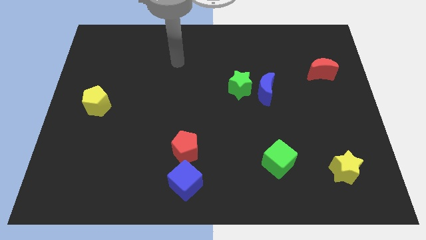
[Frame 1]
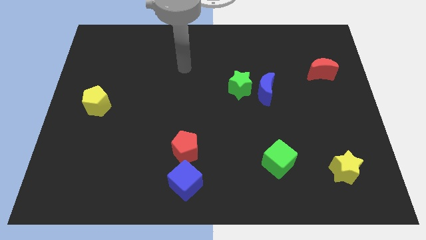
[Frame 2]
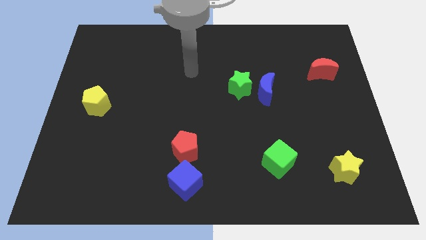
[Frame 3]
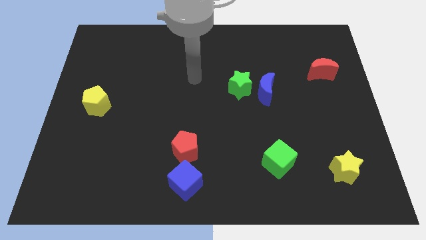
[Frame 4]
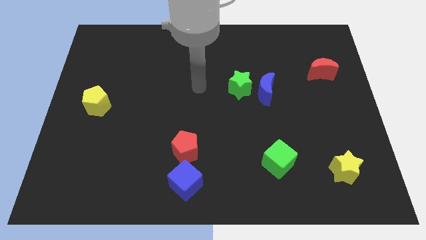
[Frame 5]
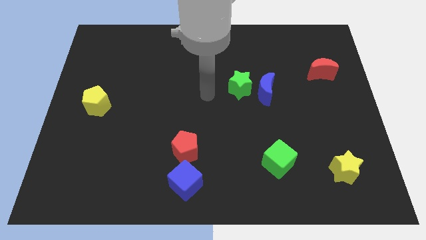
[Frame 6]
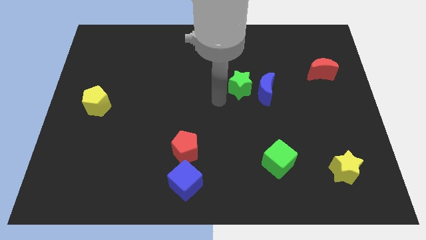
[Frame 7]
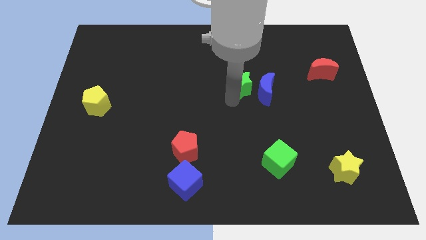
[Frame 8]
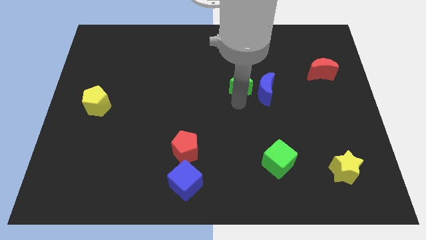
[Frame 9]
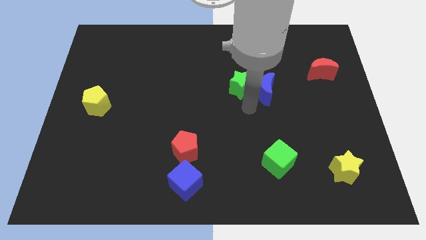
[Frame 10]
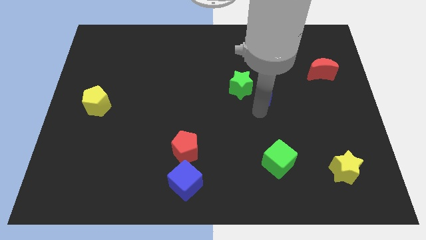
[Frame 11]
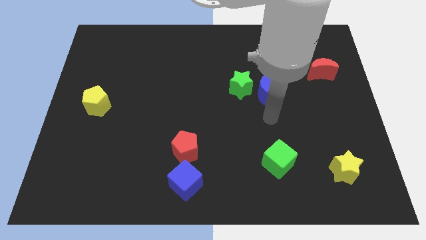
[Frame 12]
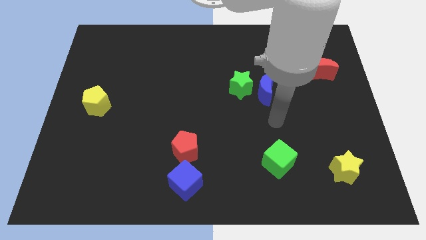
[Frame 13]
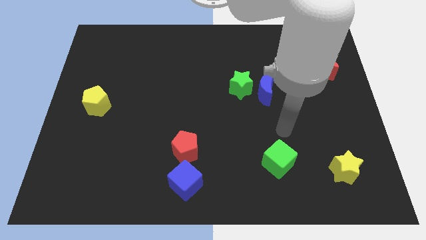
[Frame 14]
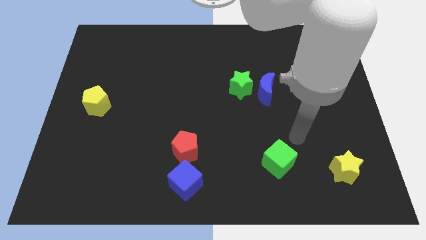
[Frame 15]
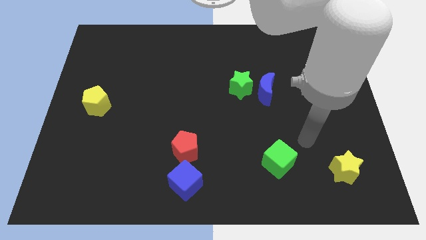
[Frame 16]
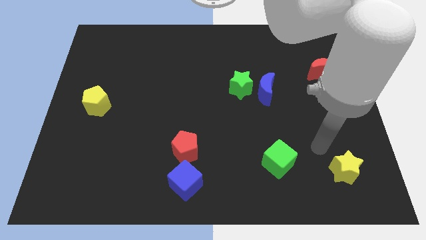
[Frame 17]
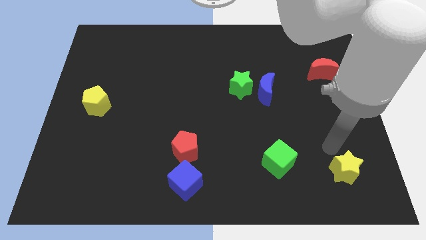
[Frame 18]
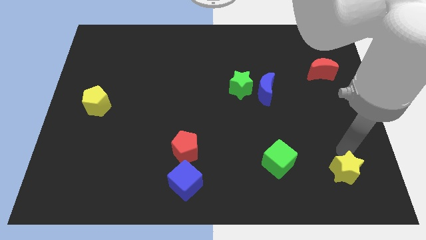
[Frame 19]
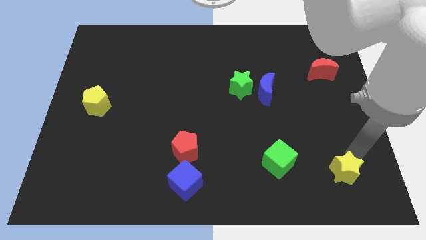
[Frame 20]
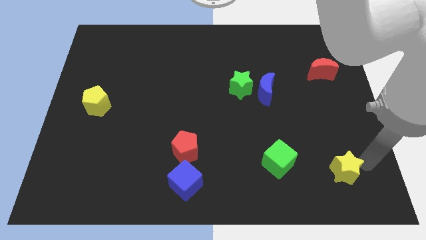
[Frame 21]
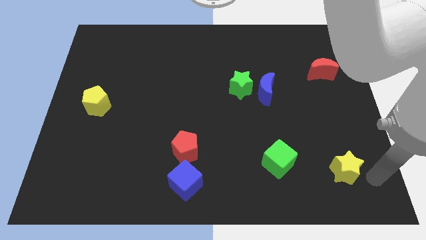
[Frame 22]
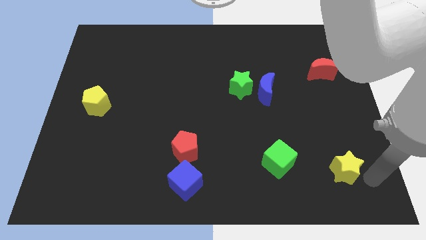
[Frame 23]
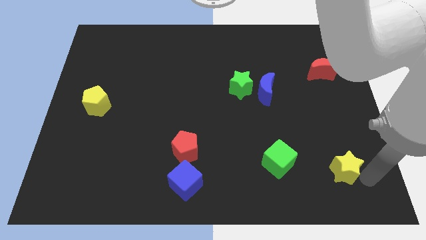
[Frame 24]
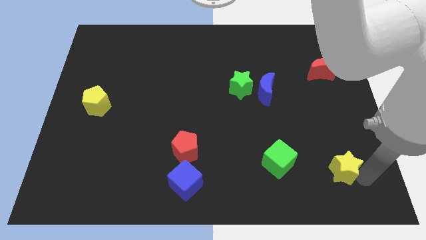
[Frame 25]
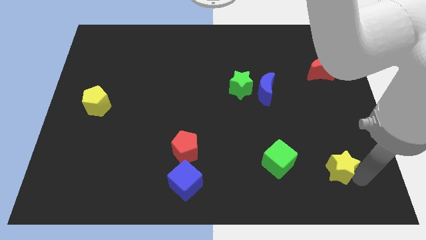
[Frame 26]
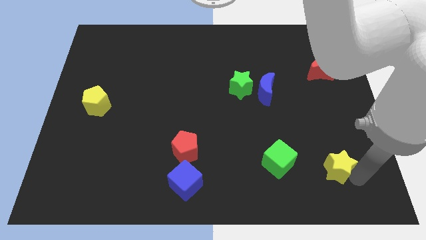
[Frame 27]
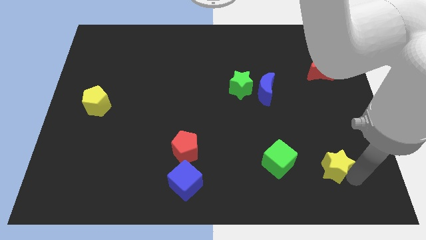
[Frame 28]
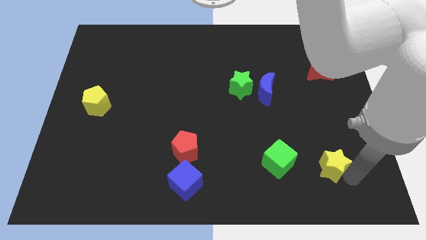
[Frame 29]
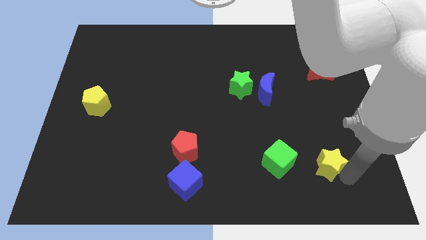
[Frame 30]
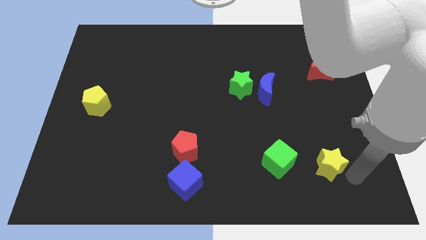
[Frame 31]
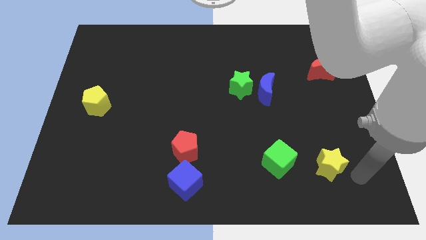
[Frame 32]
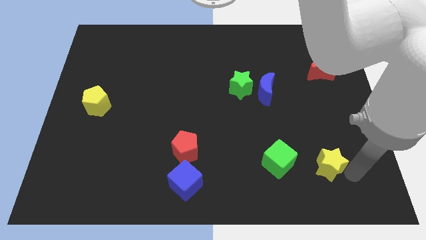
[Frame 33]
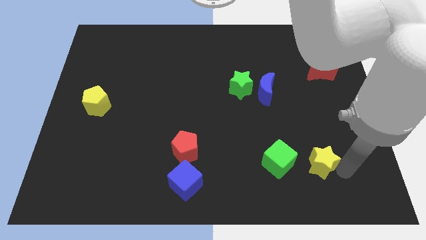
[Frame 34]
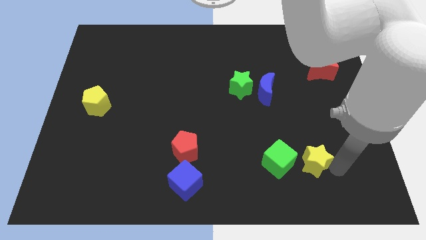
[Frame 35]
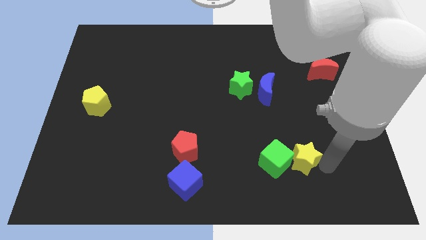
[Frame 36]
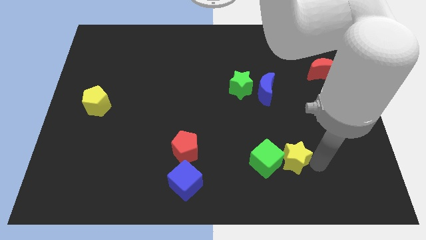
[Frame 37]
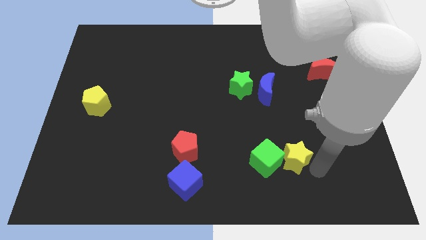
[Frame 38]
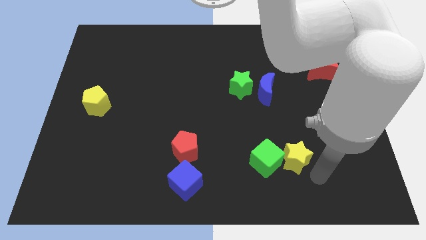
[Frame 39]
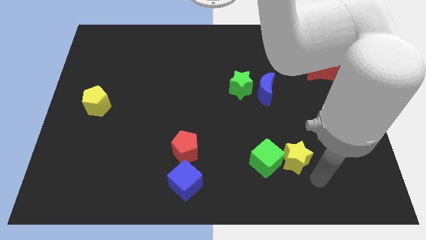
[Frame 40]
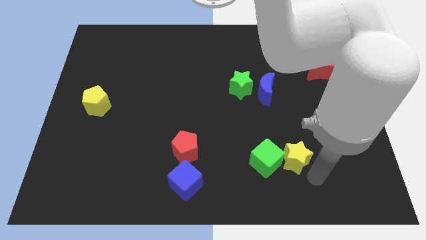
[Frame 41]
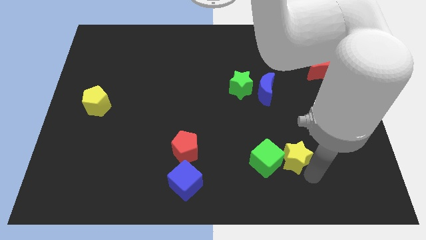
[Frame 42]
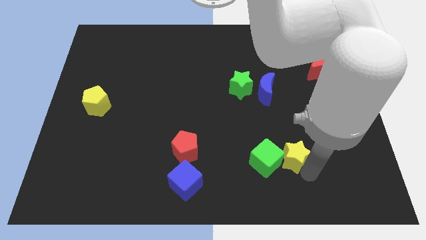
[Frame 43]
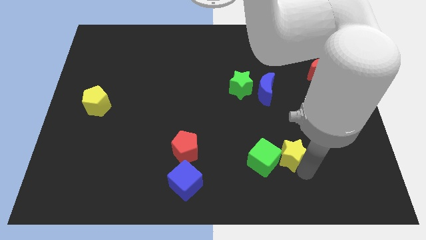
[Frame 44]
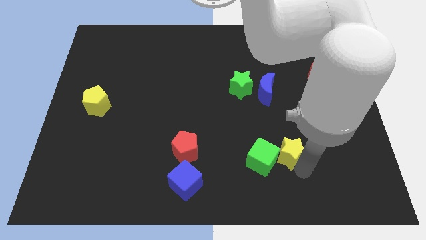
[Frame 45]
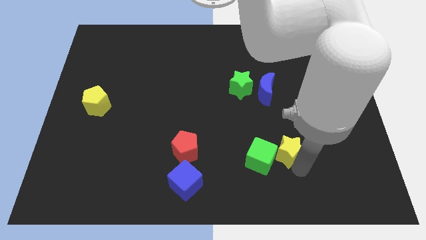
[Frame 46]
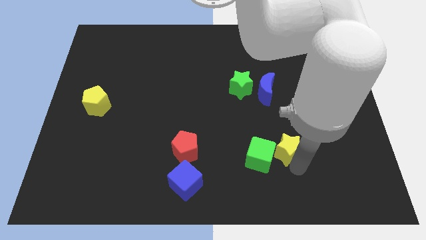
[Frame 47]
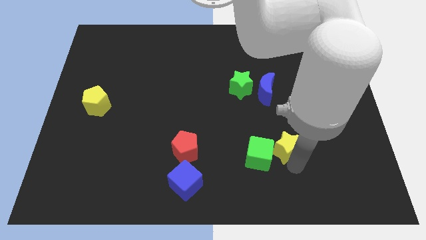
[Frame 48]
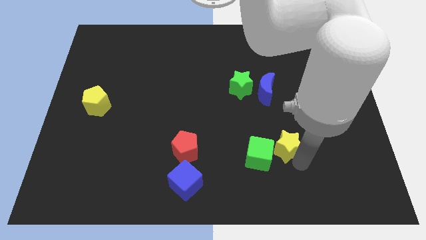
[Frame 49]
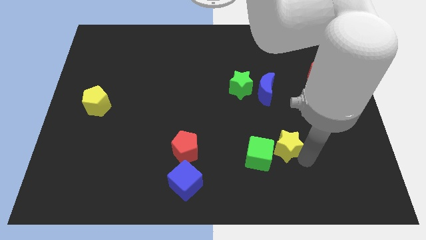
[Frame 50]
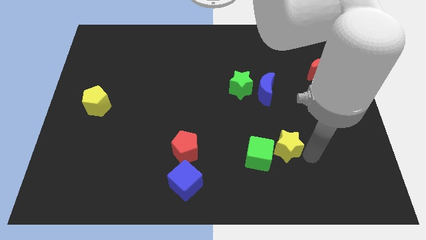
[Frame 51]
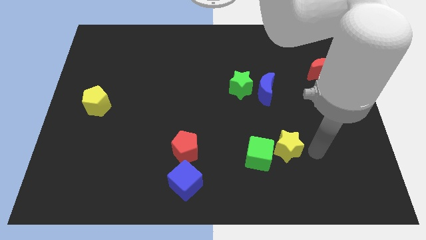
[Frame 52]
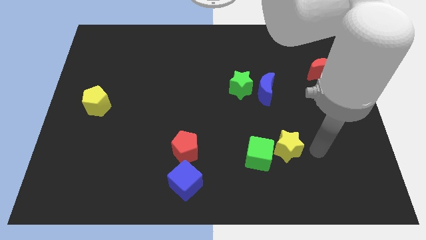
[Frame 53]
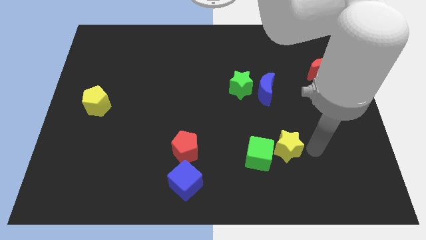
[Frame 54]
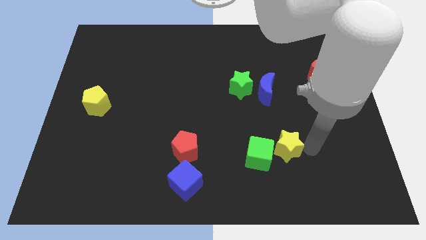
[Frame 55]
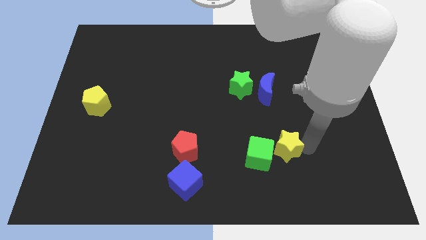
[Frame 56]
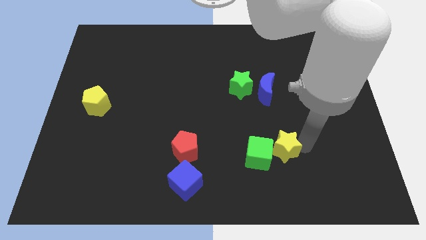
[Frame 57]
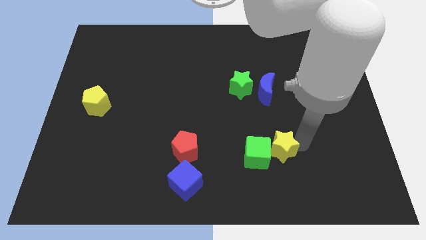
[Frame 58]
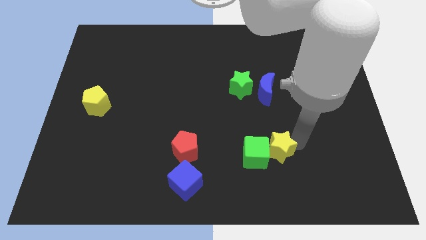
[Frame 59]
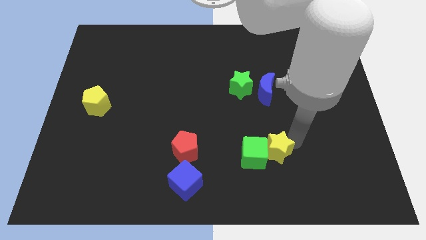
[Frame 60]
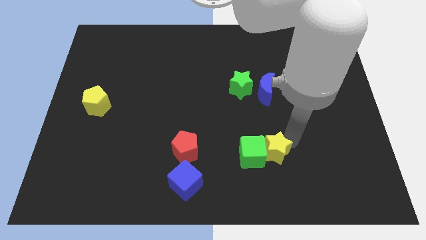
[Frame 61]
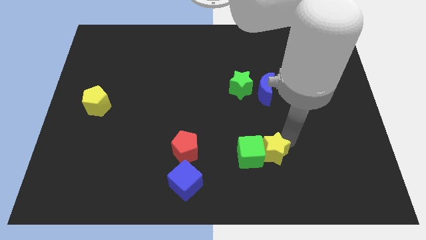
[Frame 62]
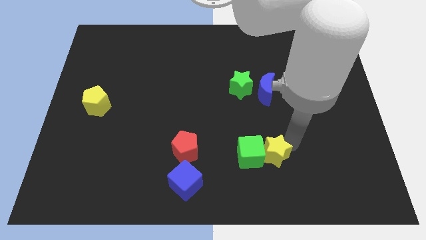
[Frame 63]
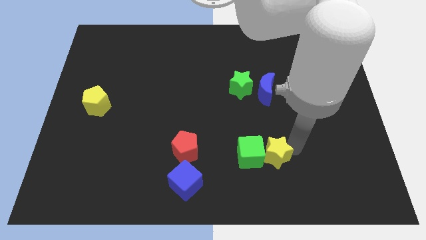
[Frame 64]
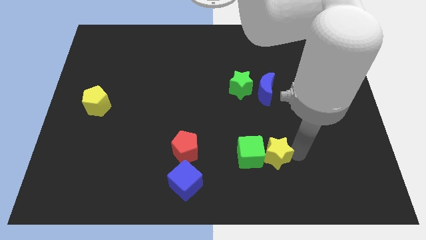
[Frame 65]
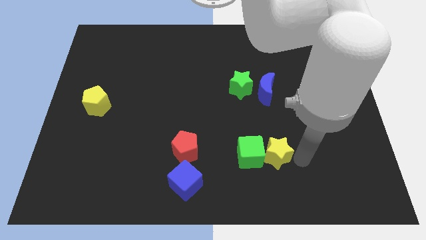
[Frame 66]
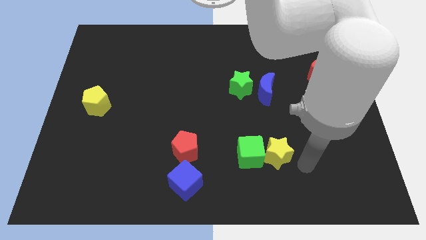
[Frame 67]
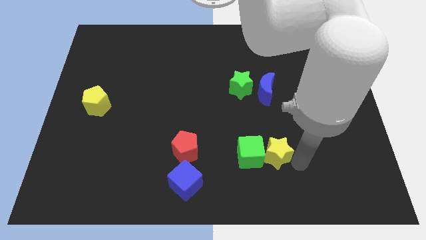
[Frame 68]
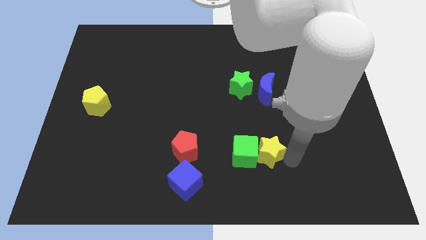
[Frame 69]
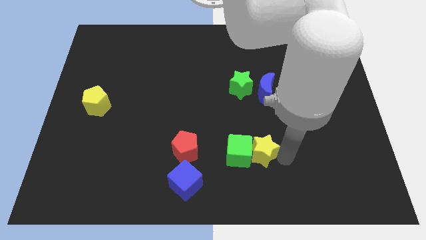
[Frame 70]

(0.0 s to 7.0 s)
push the yellow star to the right side of the red pentagon

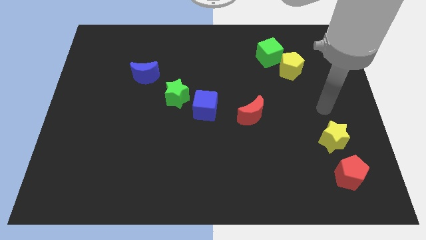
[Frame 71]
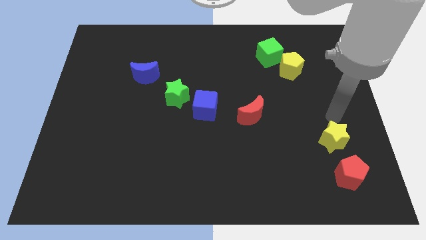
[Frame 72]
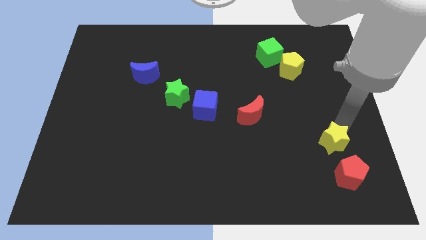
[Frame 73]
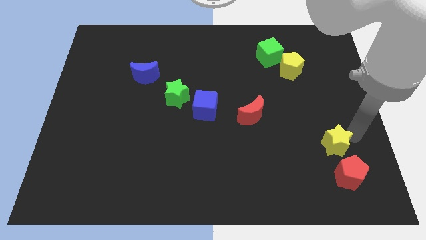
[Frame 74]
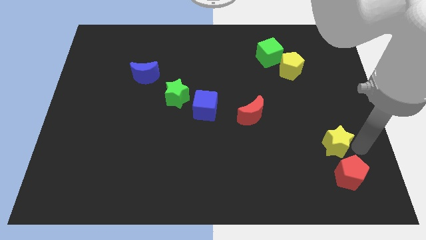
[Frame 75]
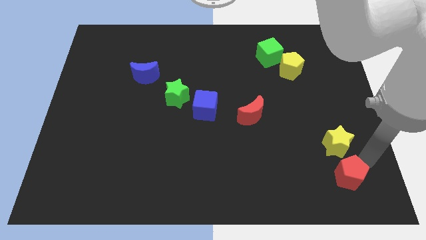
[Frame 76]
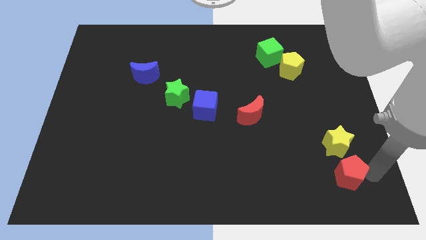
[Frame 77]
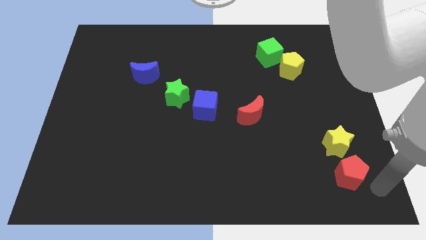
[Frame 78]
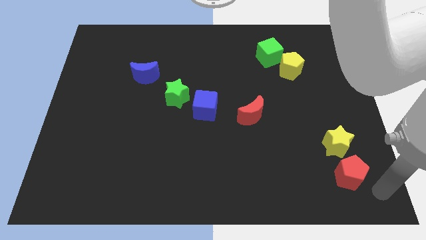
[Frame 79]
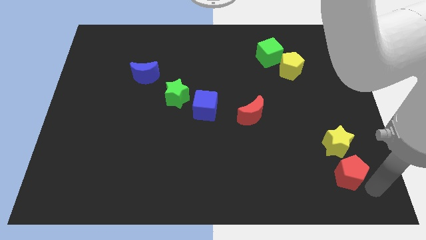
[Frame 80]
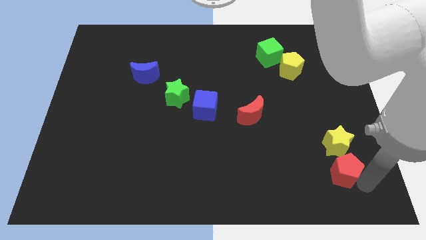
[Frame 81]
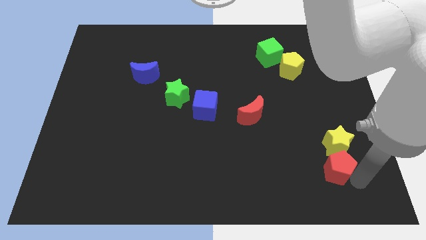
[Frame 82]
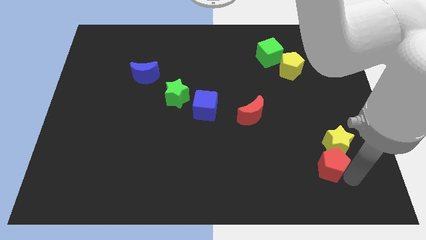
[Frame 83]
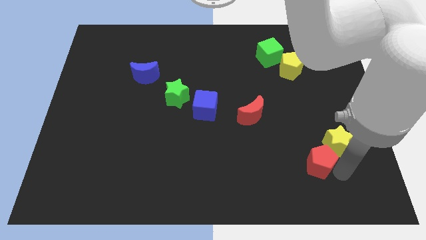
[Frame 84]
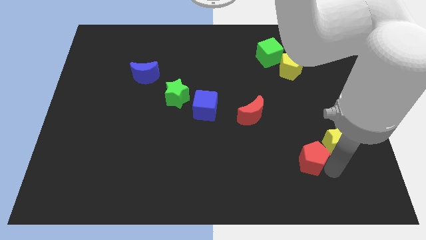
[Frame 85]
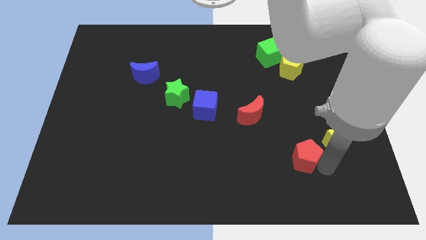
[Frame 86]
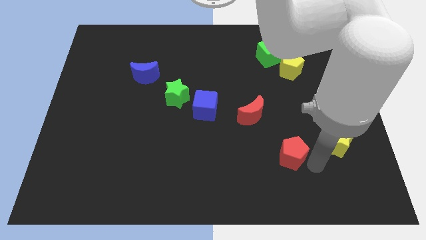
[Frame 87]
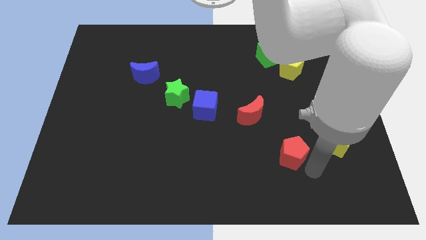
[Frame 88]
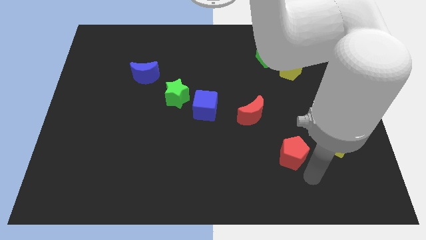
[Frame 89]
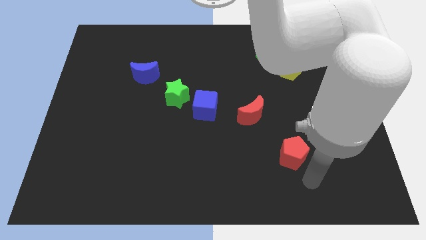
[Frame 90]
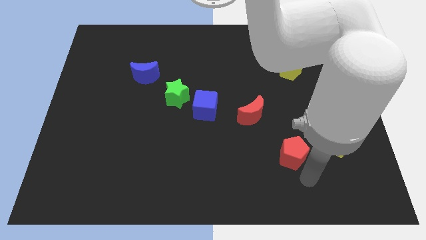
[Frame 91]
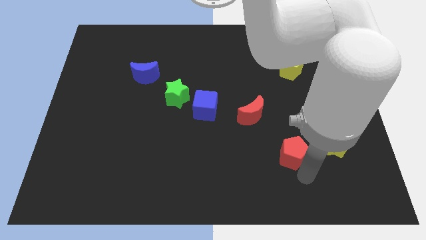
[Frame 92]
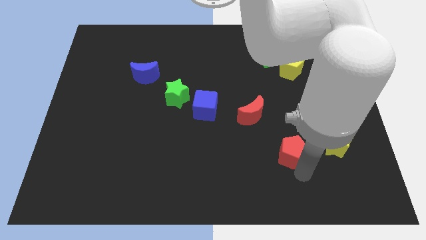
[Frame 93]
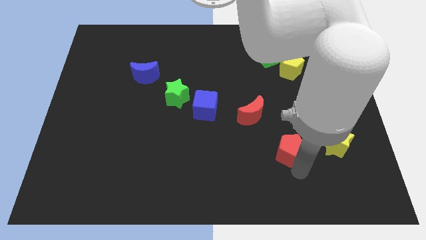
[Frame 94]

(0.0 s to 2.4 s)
slide the red pentagon diagonally down and to the right of the red moon
